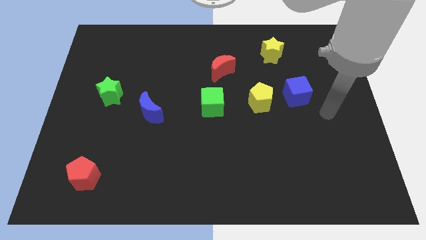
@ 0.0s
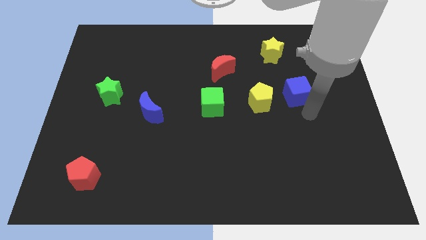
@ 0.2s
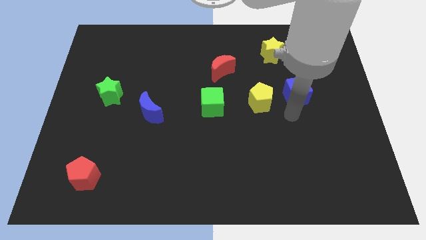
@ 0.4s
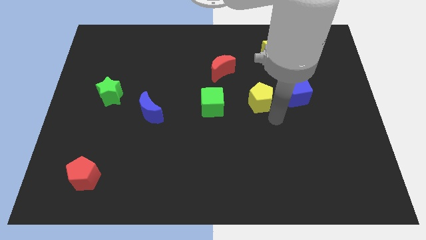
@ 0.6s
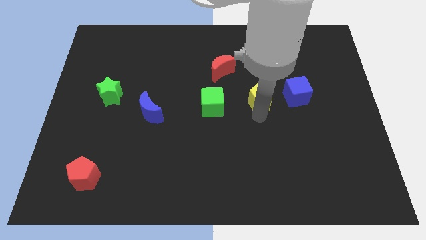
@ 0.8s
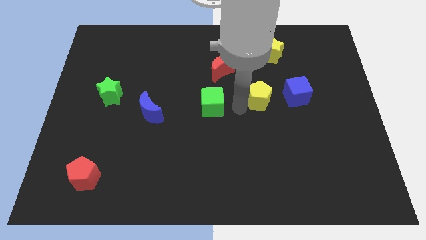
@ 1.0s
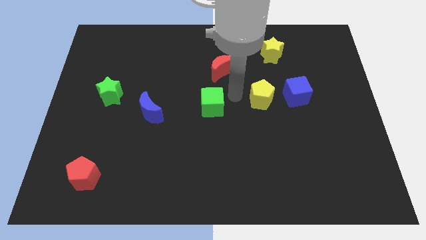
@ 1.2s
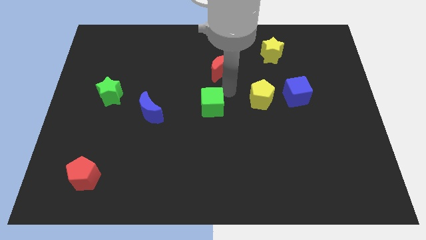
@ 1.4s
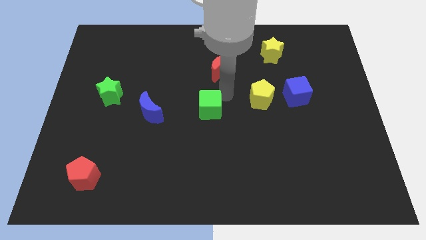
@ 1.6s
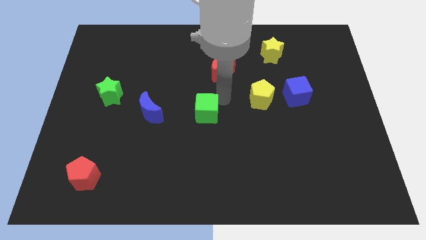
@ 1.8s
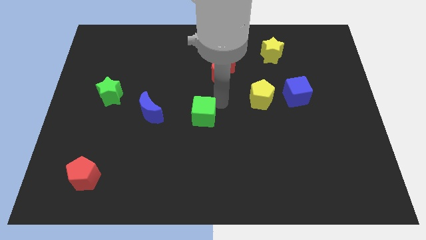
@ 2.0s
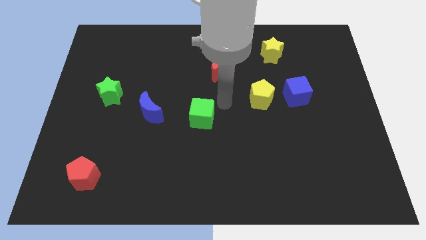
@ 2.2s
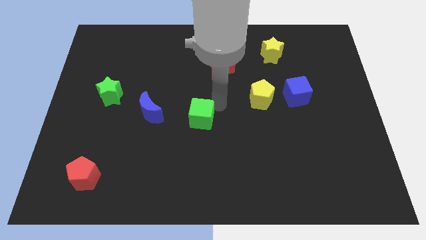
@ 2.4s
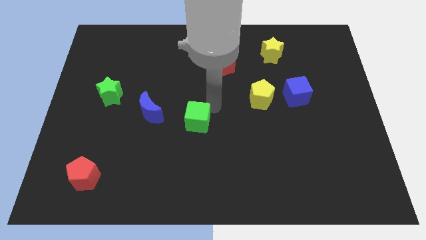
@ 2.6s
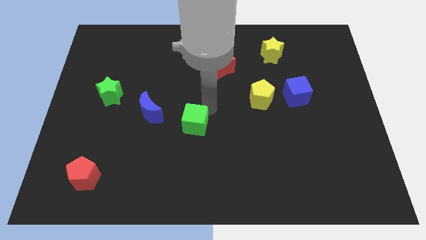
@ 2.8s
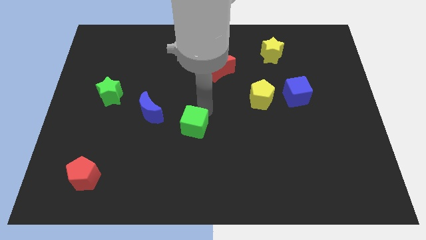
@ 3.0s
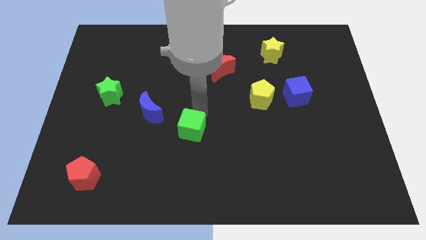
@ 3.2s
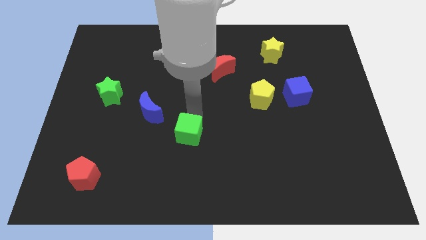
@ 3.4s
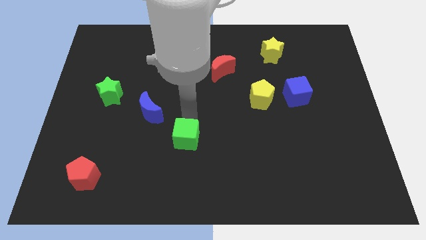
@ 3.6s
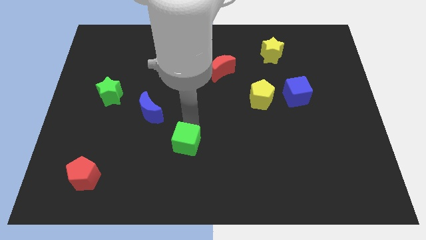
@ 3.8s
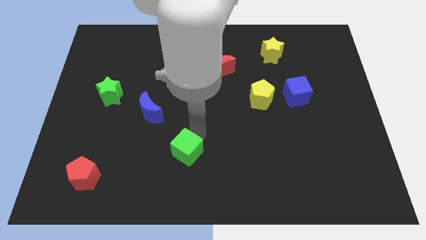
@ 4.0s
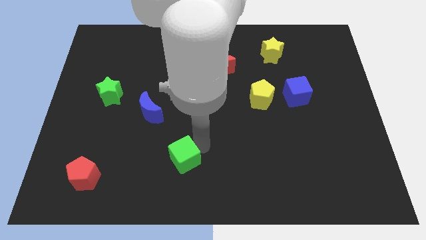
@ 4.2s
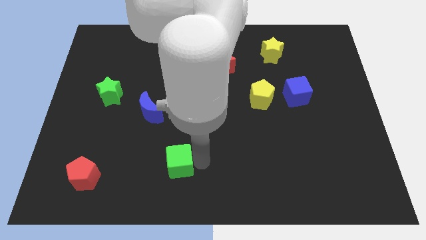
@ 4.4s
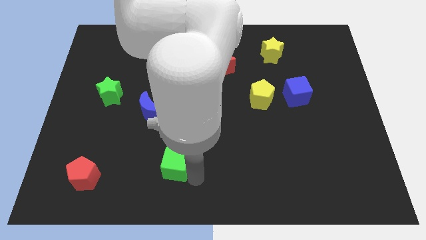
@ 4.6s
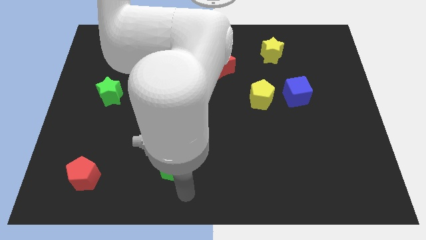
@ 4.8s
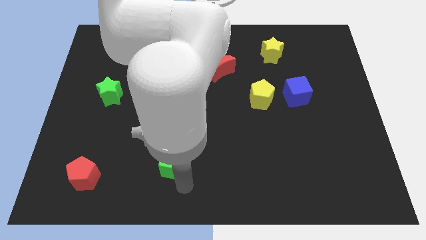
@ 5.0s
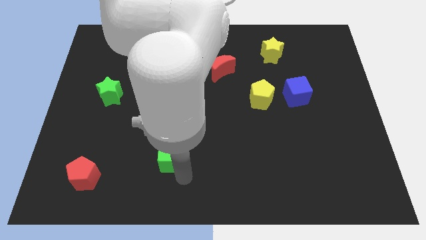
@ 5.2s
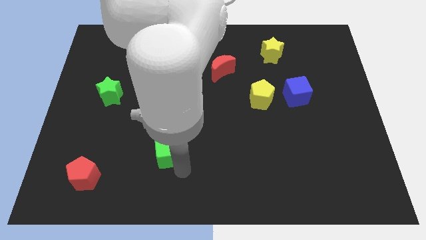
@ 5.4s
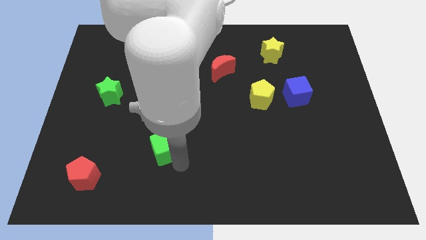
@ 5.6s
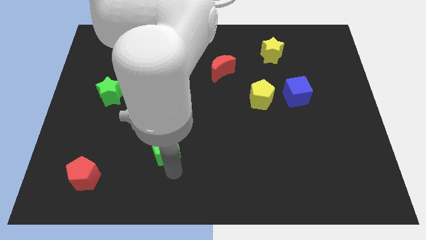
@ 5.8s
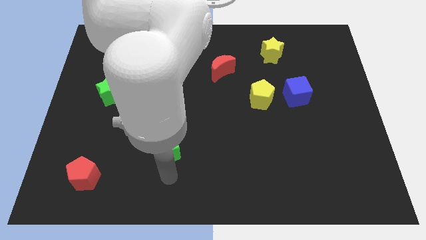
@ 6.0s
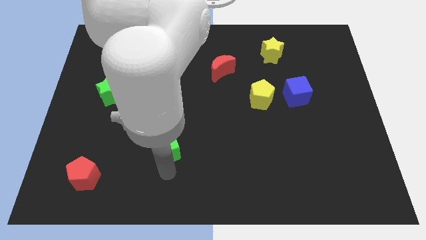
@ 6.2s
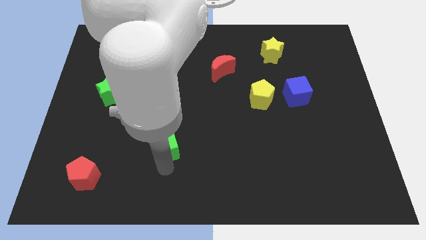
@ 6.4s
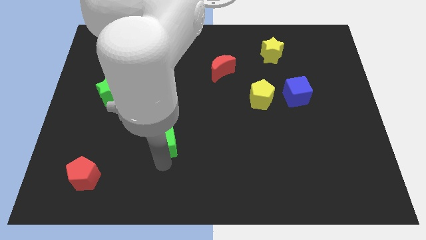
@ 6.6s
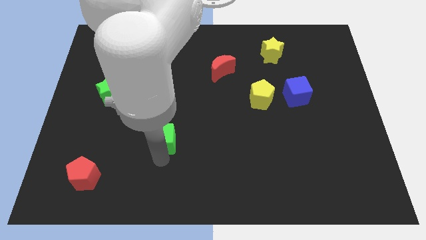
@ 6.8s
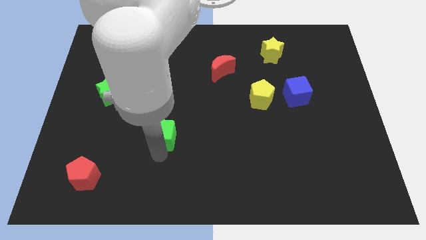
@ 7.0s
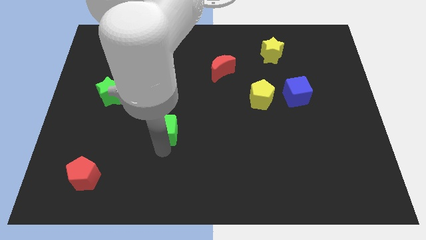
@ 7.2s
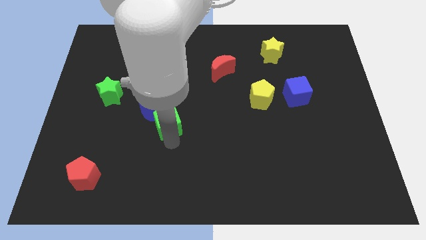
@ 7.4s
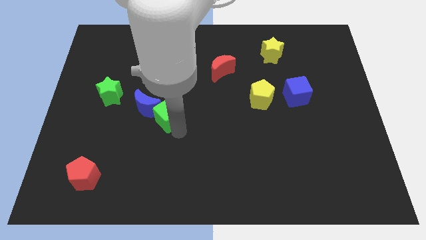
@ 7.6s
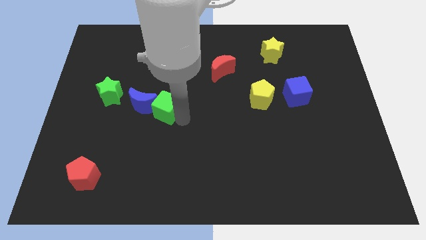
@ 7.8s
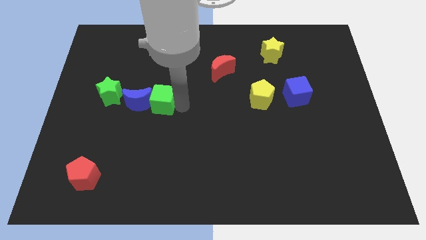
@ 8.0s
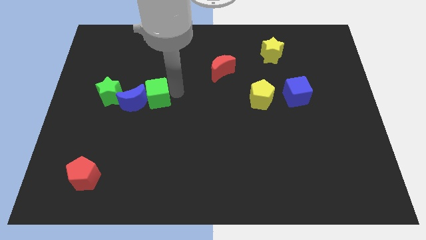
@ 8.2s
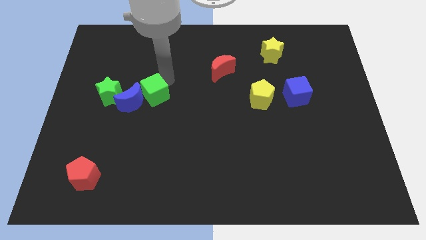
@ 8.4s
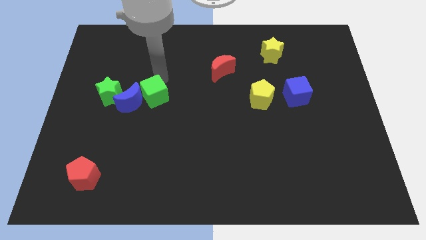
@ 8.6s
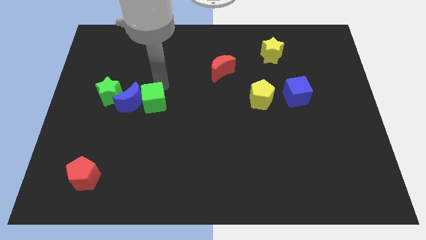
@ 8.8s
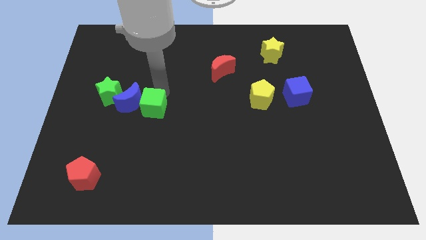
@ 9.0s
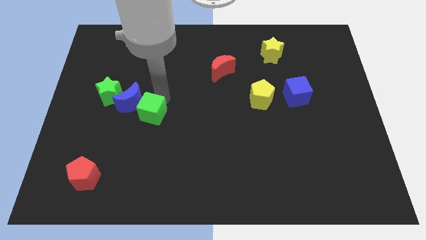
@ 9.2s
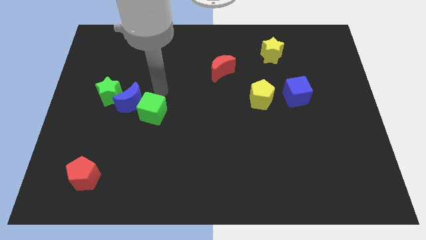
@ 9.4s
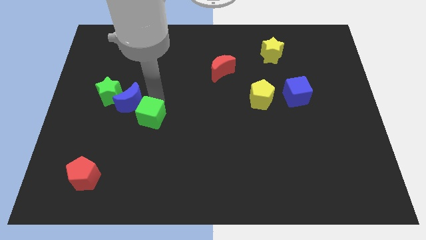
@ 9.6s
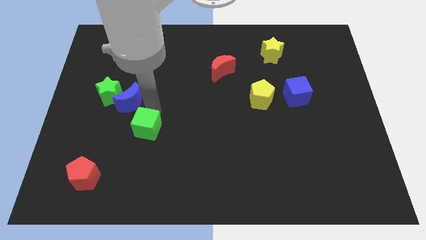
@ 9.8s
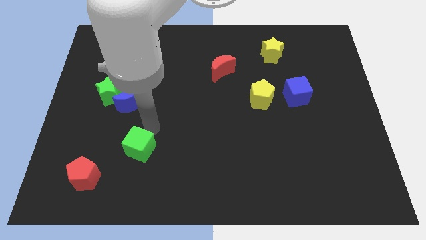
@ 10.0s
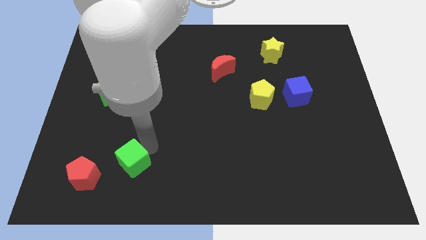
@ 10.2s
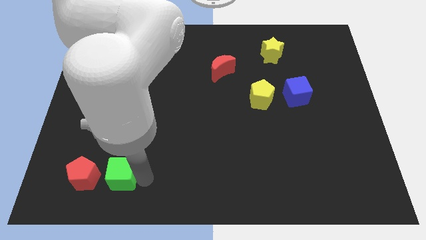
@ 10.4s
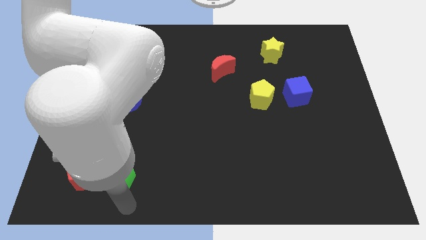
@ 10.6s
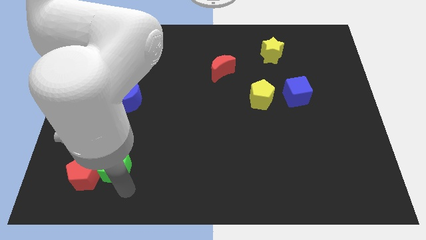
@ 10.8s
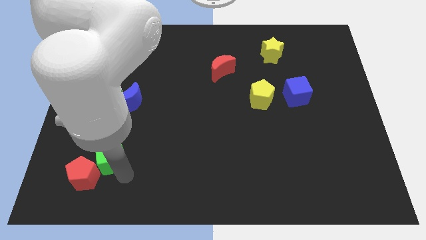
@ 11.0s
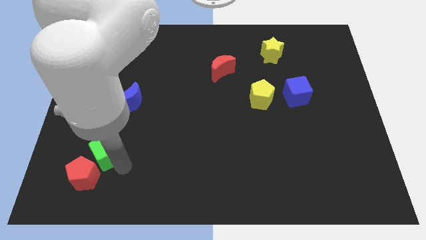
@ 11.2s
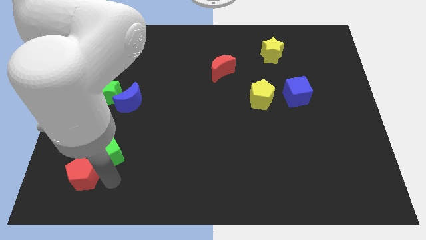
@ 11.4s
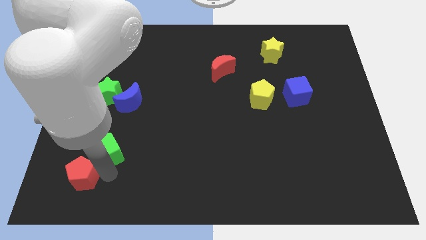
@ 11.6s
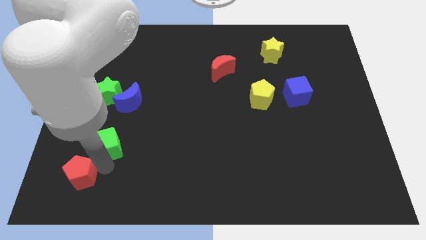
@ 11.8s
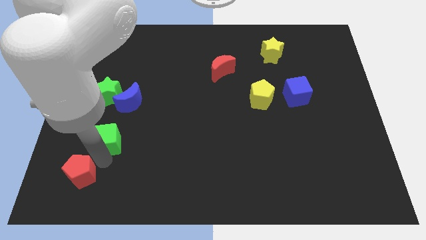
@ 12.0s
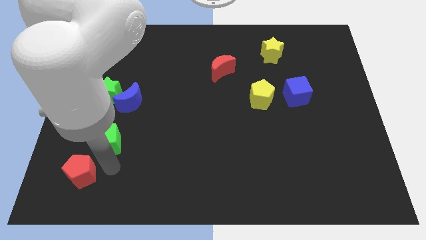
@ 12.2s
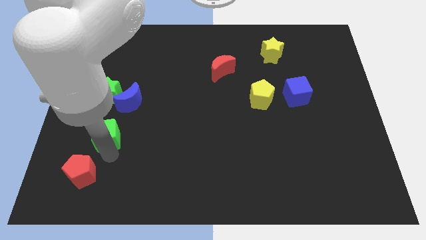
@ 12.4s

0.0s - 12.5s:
move the green cube to the bottom left of the blue moon
